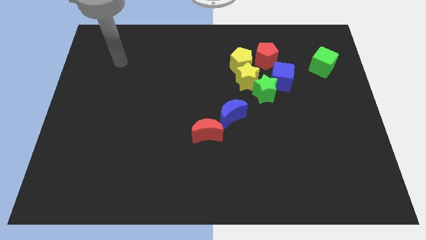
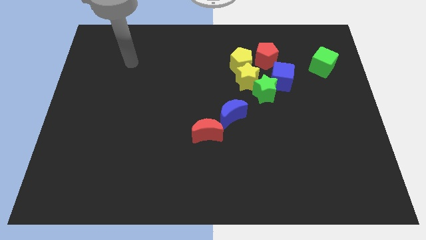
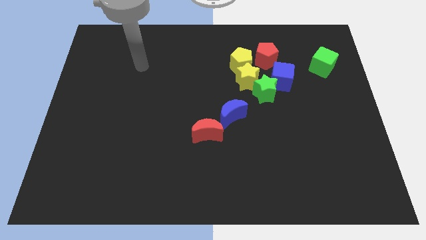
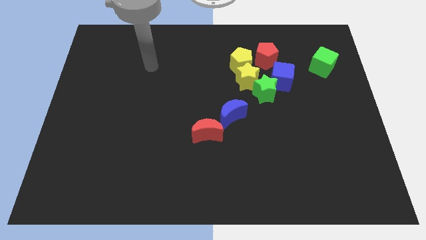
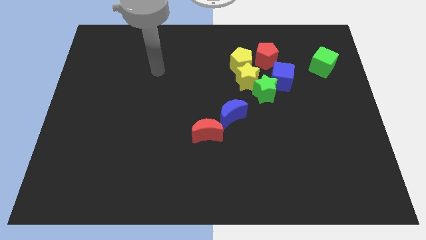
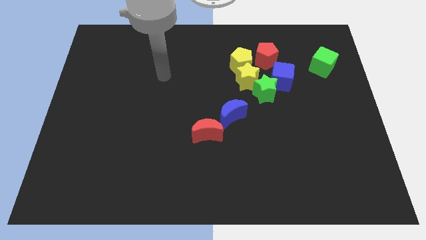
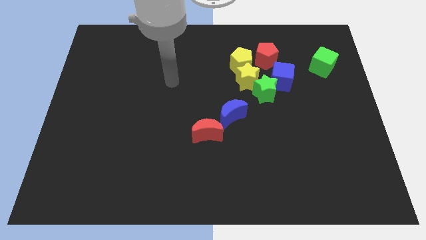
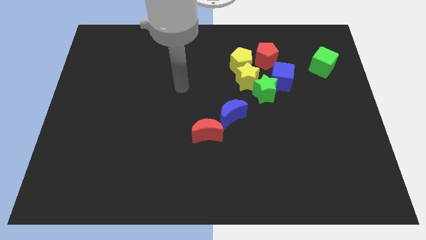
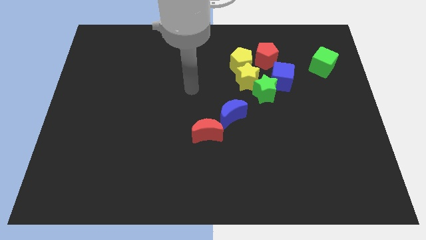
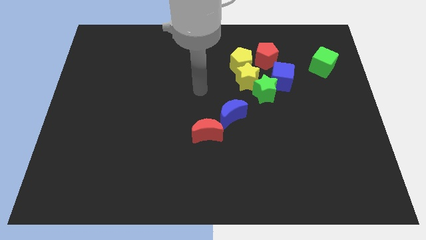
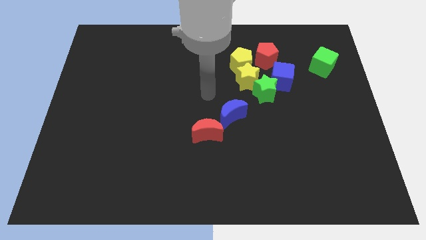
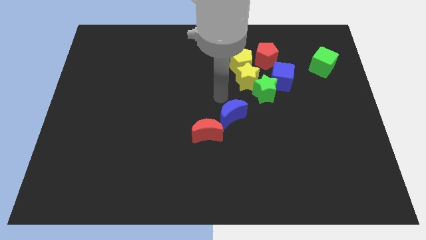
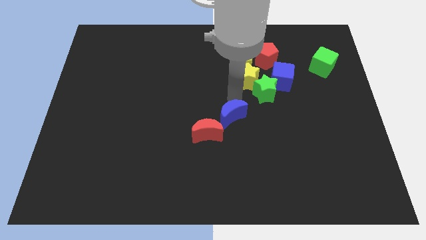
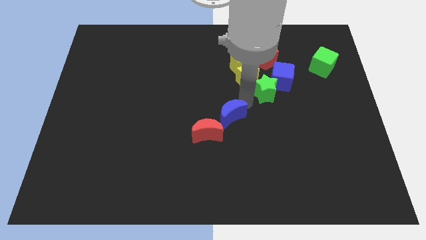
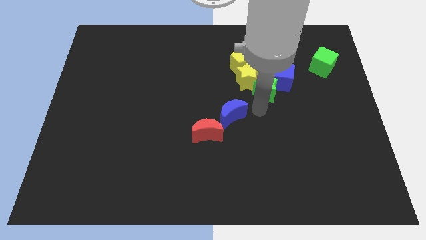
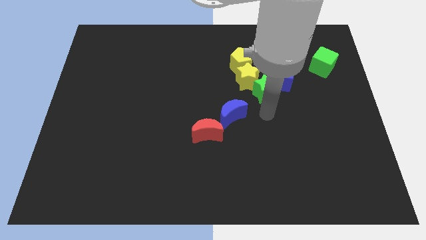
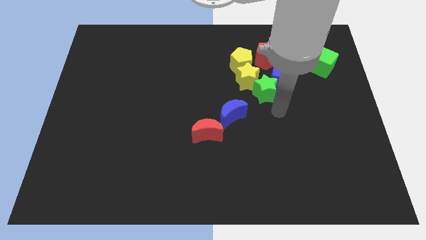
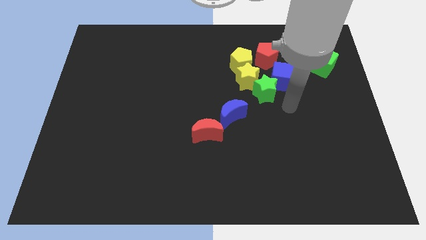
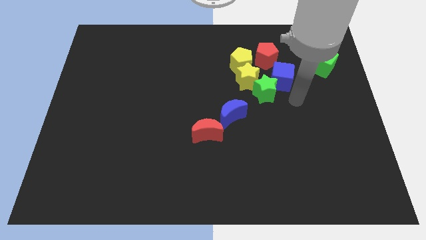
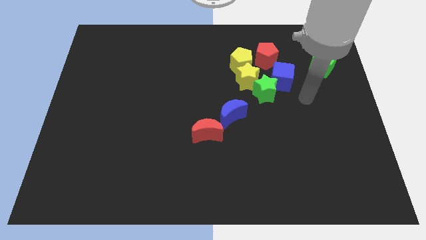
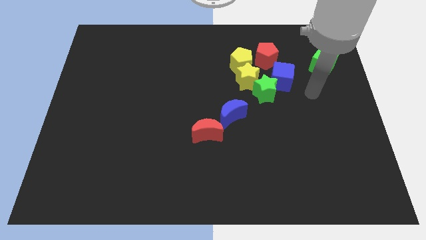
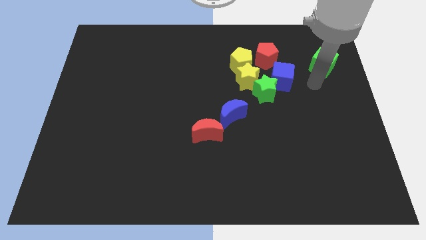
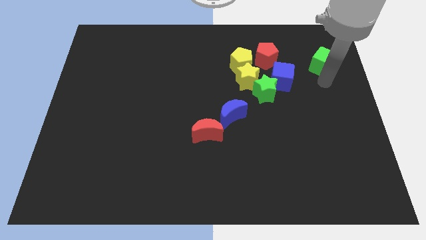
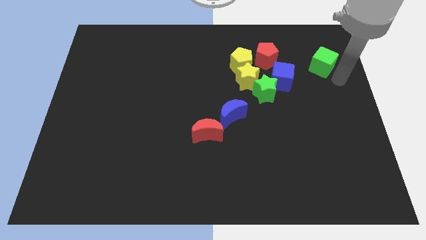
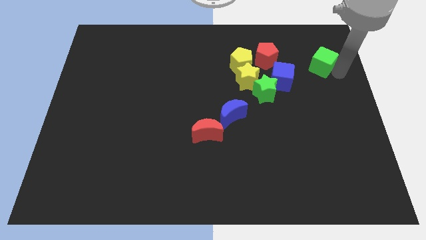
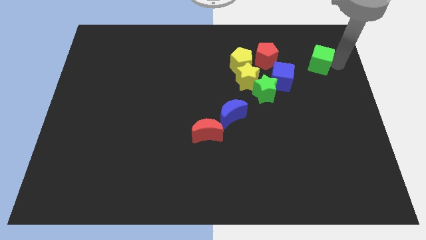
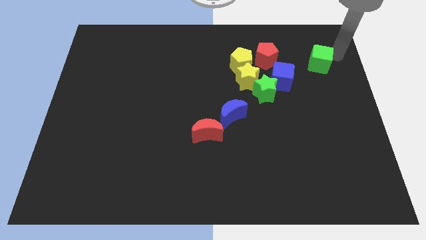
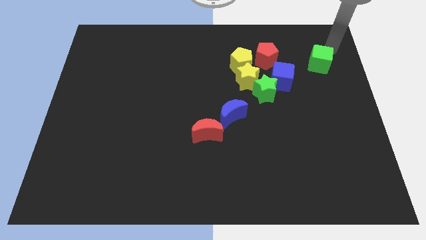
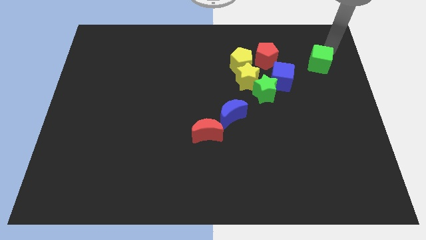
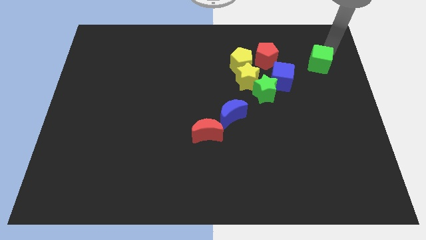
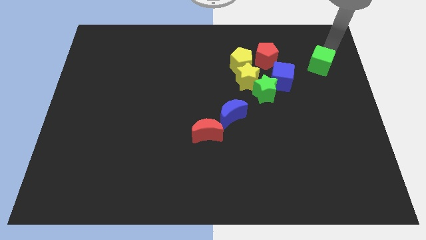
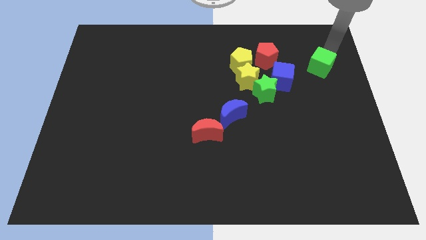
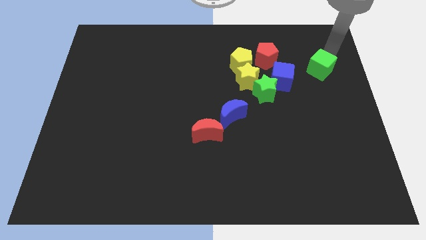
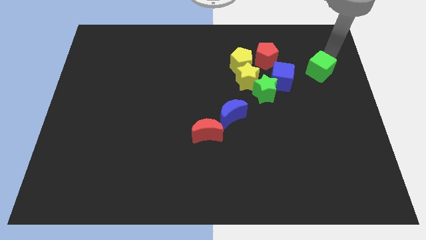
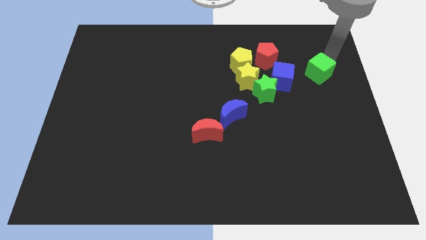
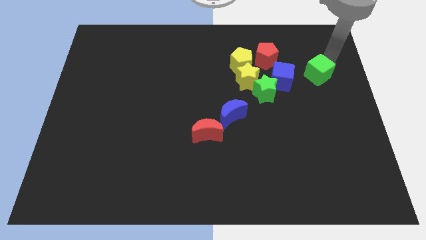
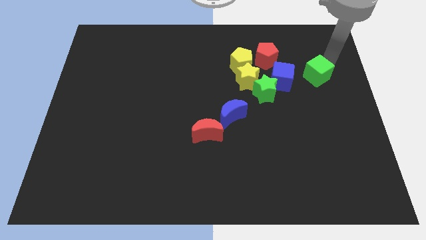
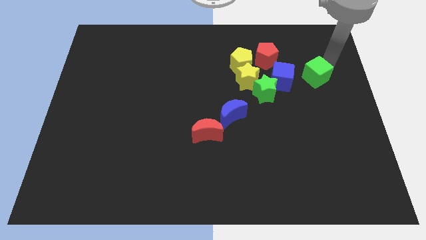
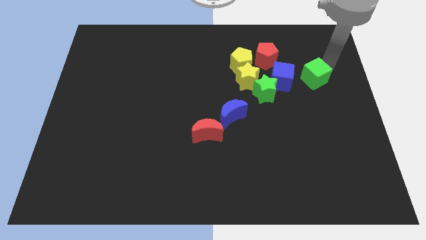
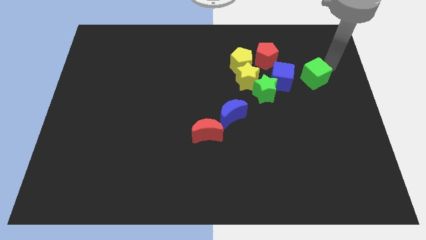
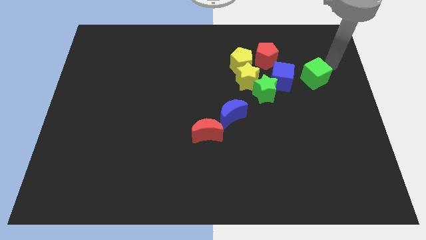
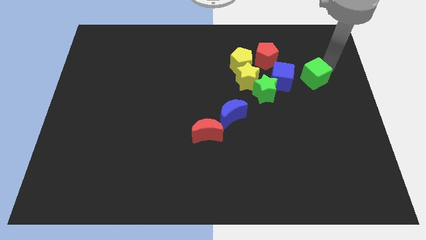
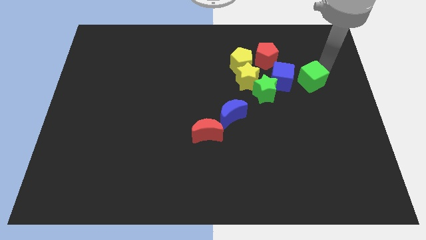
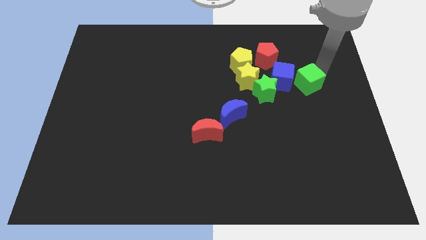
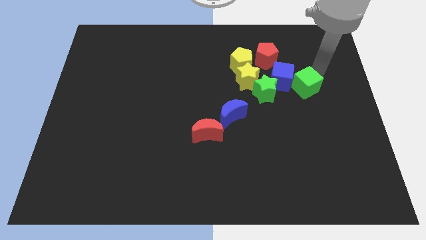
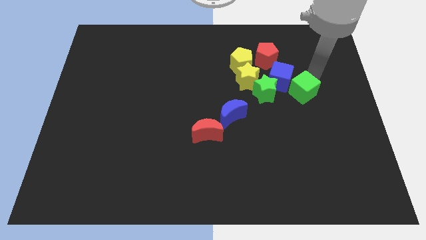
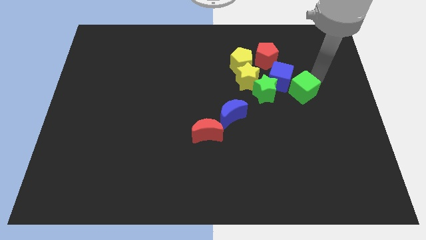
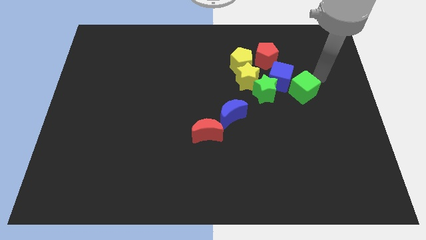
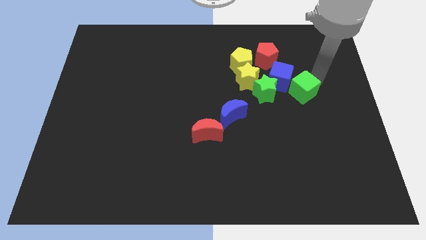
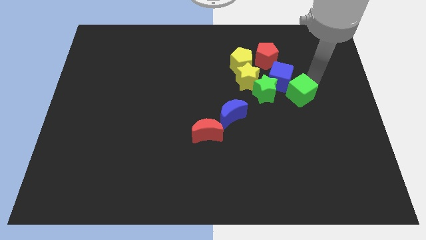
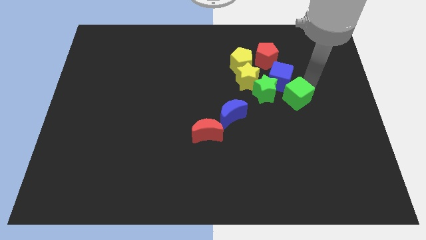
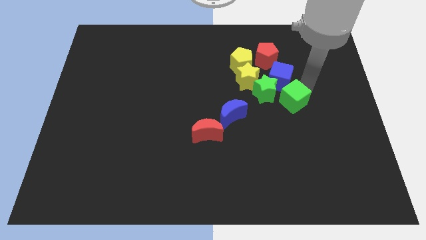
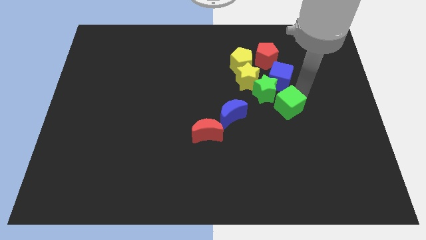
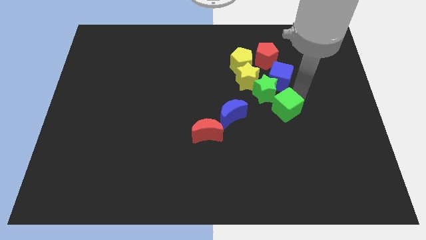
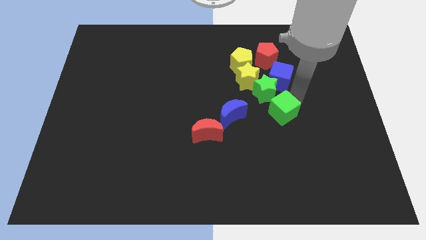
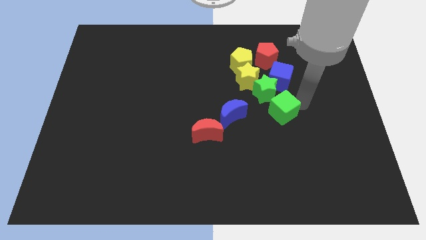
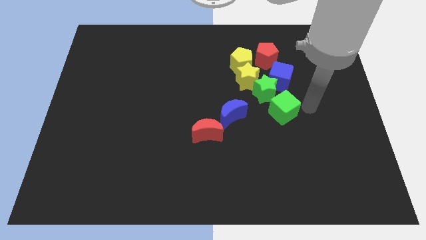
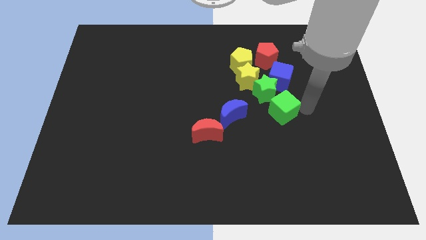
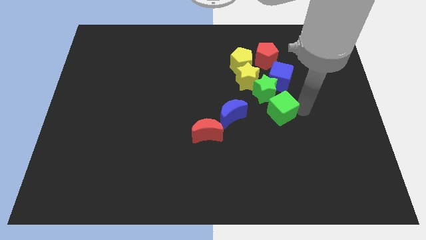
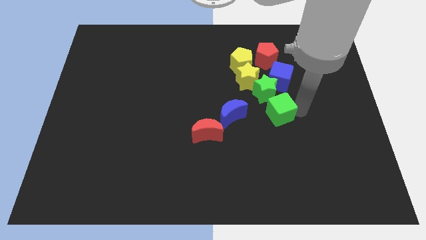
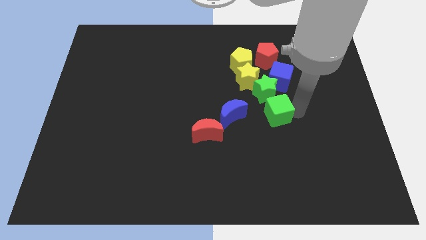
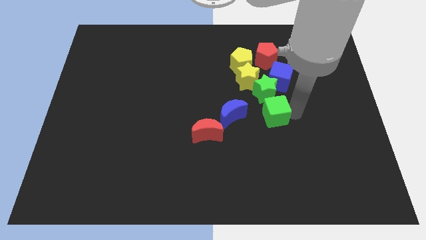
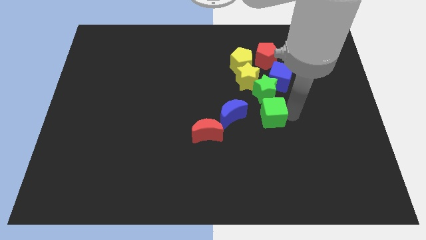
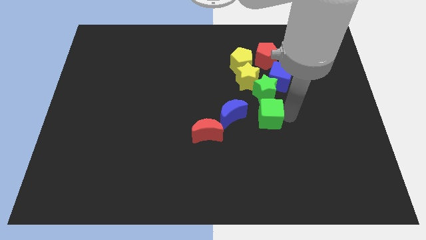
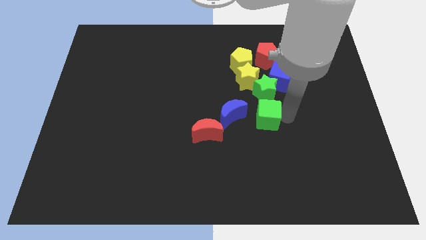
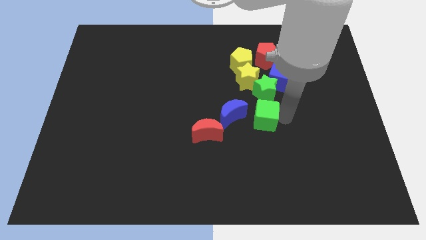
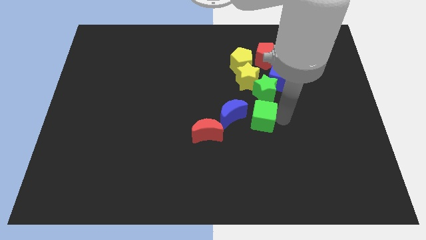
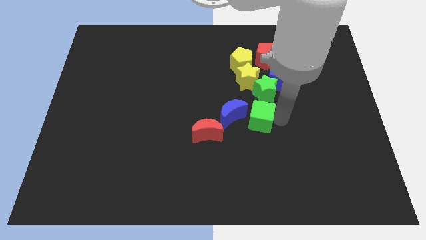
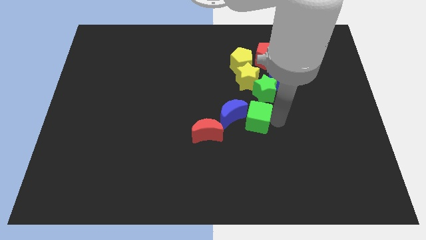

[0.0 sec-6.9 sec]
push the green cube to the blue moon

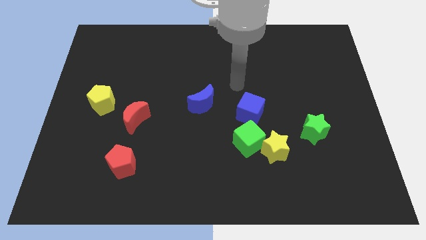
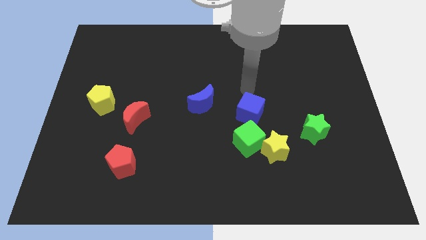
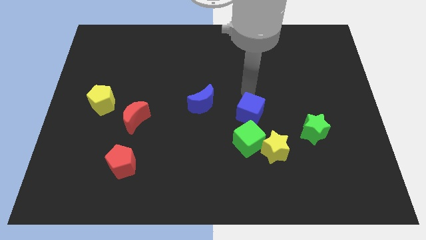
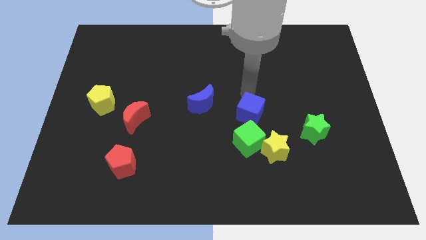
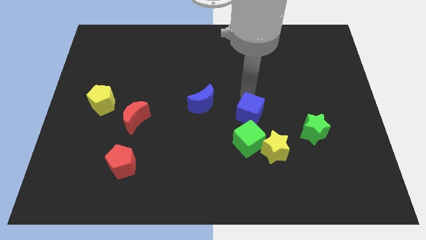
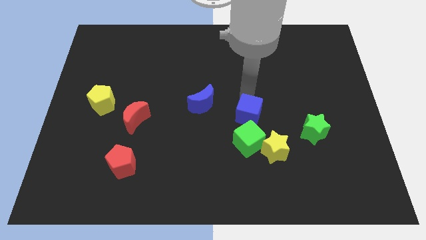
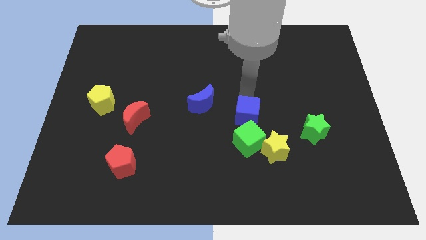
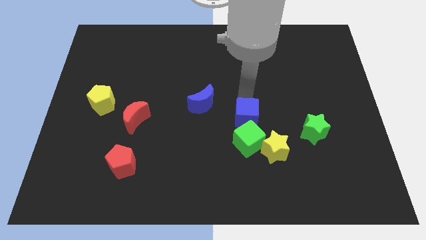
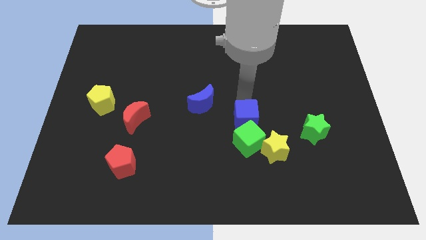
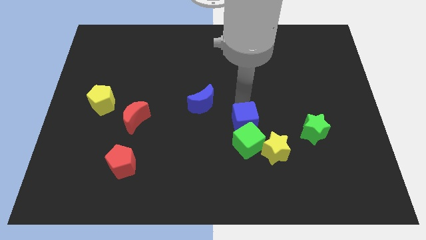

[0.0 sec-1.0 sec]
slide the blue cube towards the green cube
